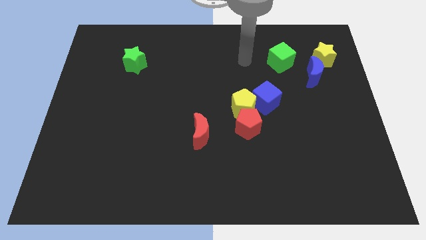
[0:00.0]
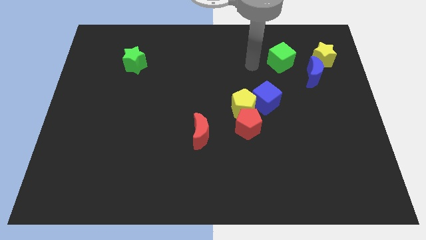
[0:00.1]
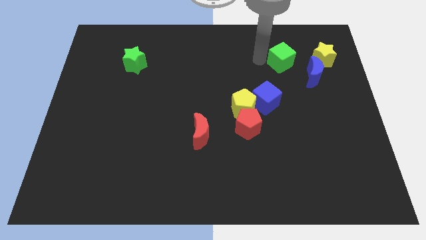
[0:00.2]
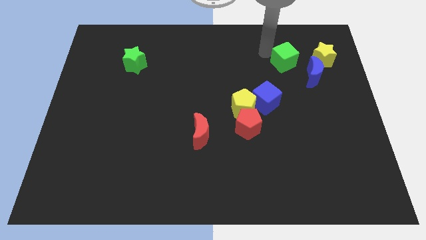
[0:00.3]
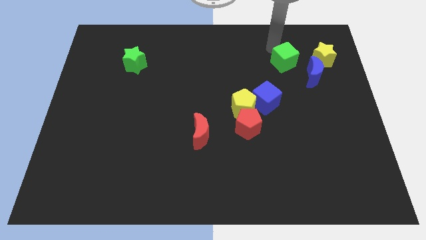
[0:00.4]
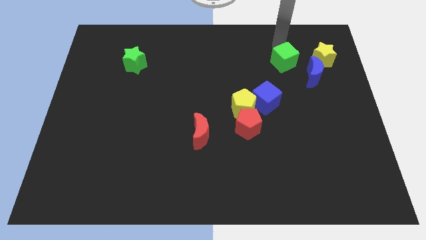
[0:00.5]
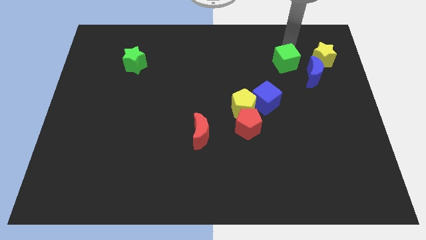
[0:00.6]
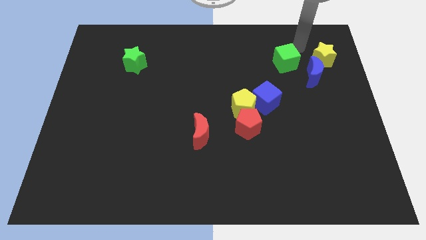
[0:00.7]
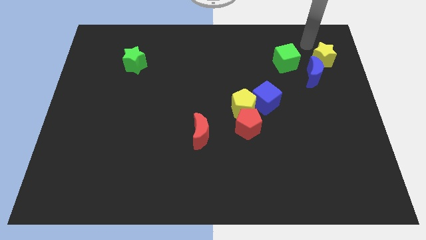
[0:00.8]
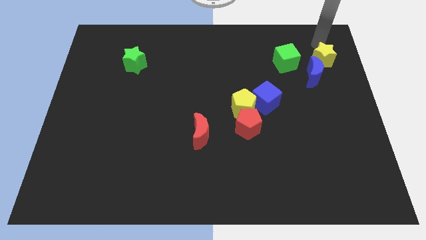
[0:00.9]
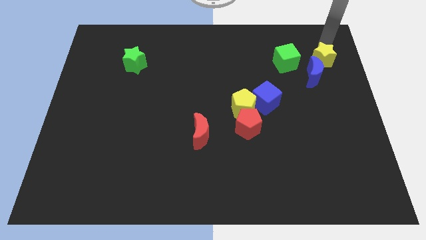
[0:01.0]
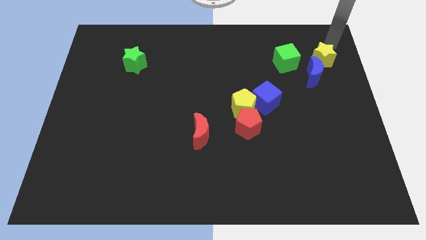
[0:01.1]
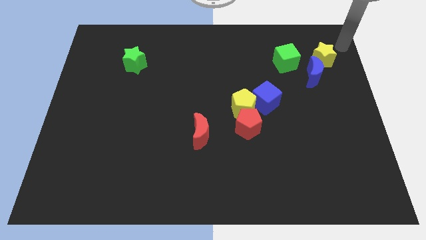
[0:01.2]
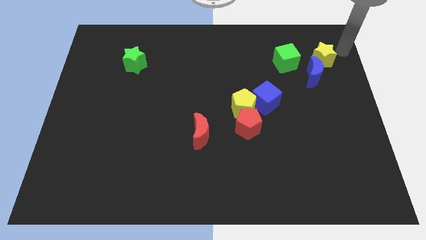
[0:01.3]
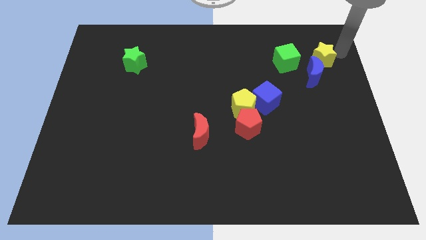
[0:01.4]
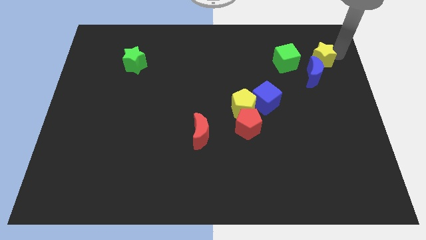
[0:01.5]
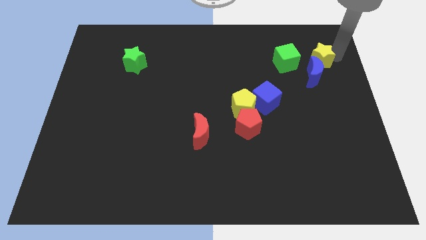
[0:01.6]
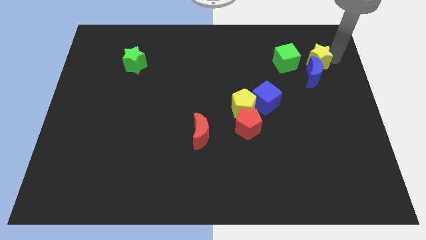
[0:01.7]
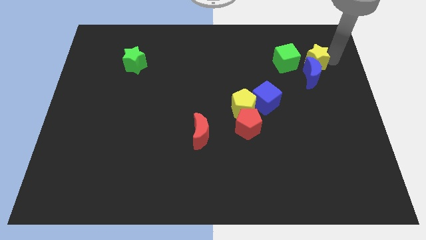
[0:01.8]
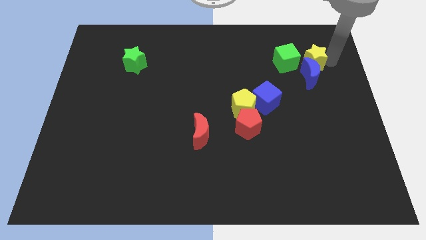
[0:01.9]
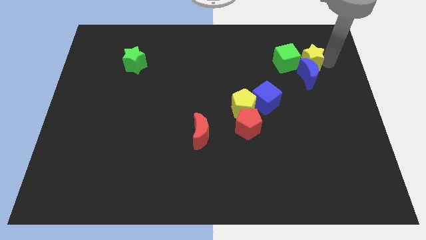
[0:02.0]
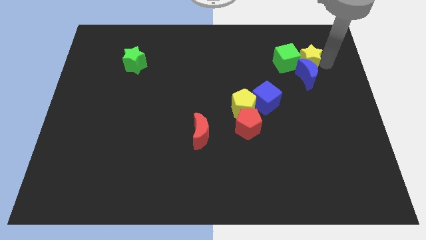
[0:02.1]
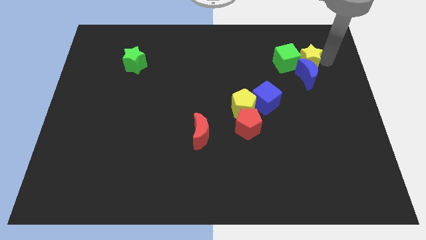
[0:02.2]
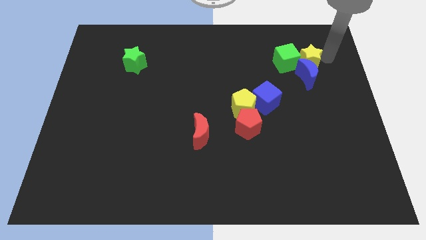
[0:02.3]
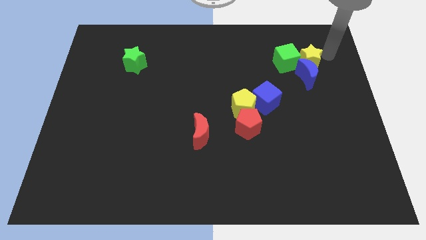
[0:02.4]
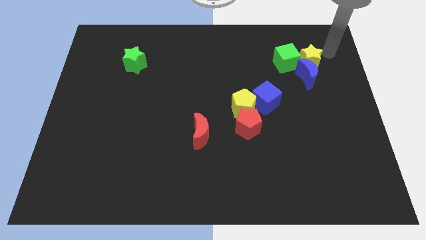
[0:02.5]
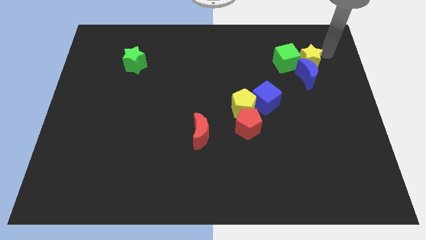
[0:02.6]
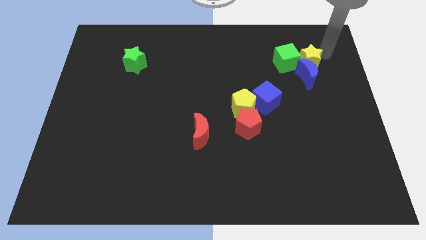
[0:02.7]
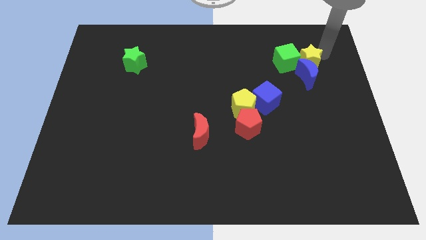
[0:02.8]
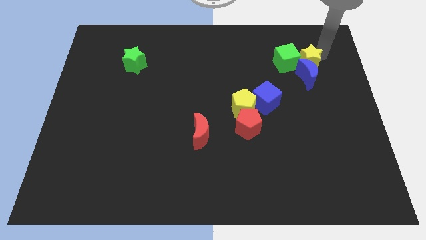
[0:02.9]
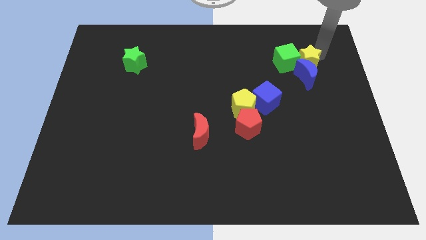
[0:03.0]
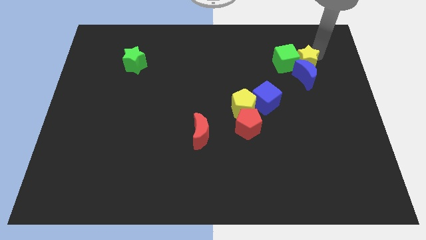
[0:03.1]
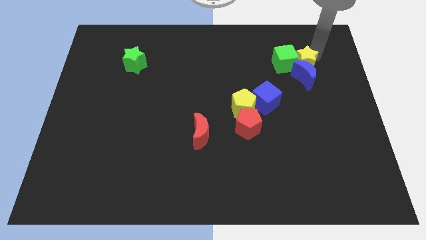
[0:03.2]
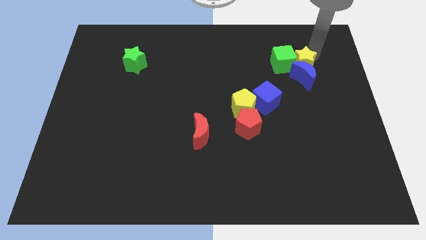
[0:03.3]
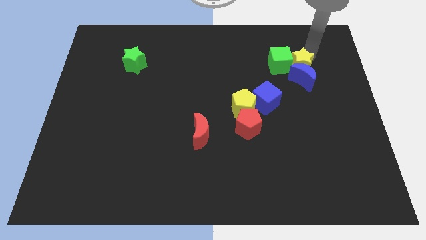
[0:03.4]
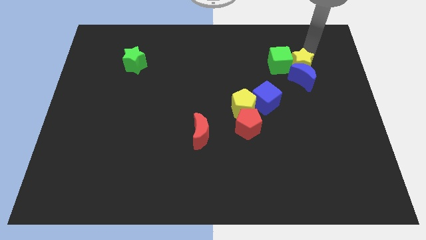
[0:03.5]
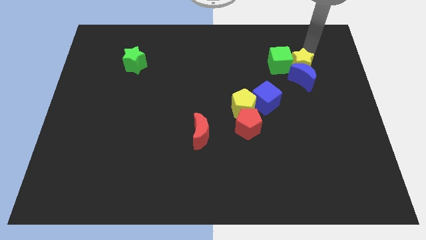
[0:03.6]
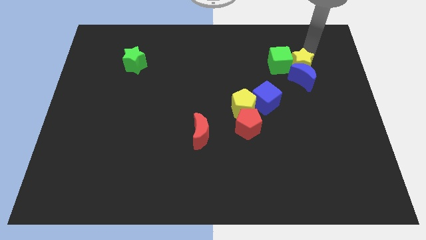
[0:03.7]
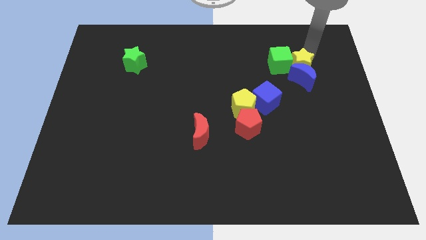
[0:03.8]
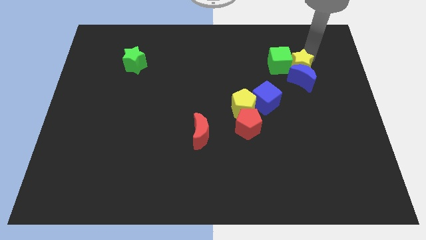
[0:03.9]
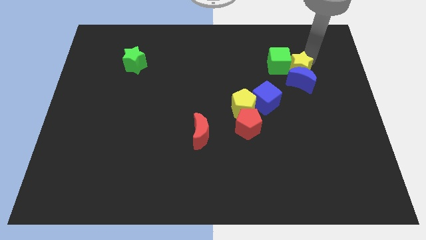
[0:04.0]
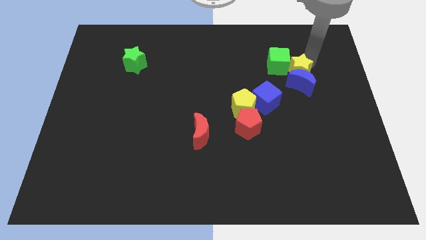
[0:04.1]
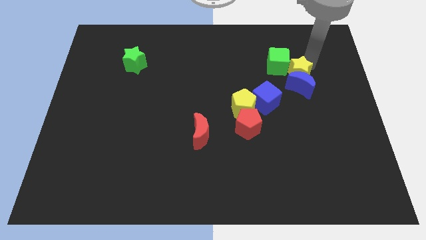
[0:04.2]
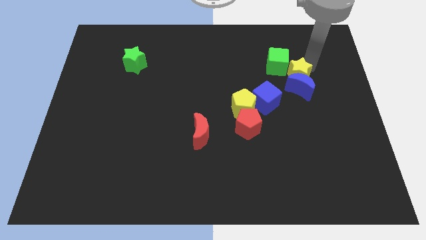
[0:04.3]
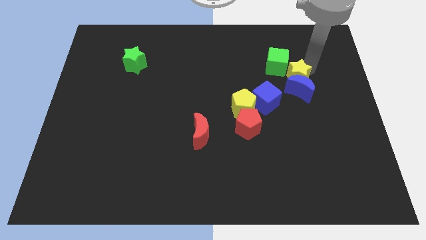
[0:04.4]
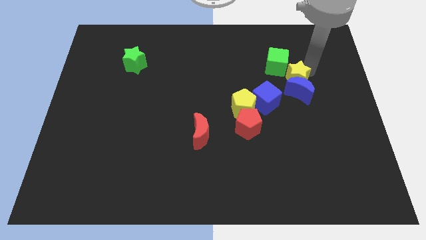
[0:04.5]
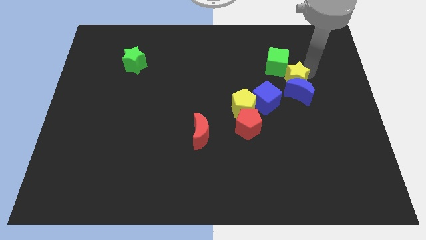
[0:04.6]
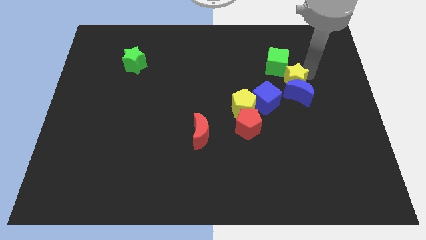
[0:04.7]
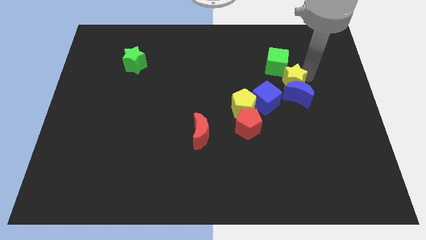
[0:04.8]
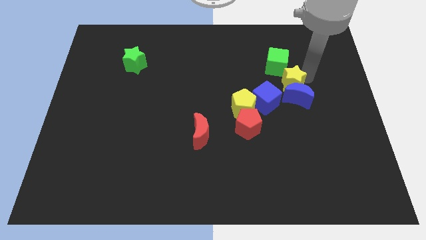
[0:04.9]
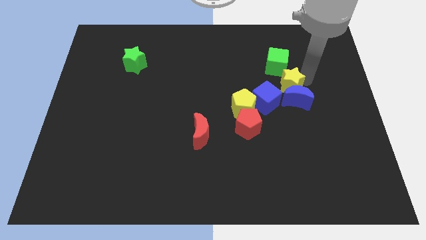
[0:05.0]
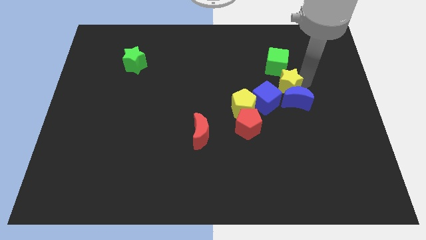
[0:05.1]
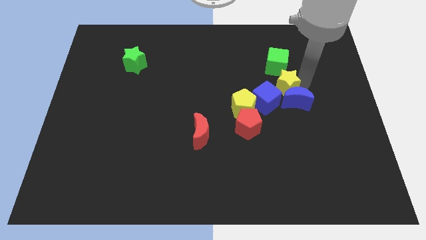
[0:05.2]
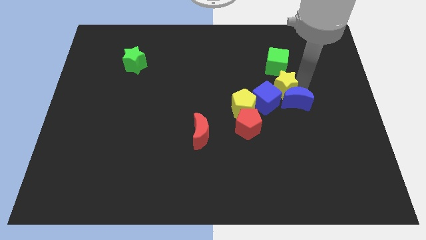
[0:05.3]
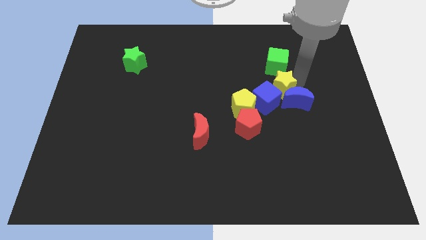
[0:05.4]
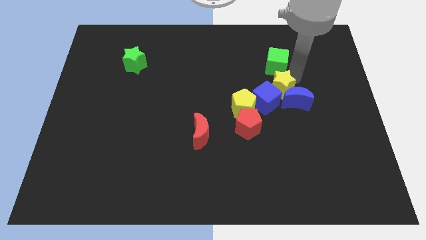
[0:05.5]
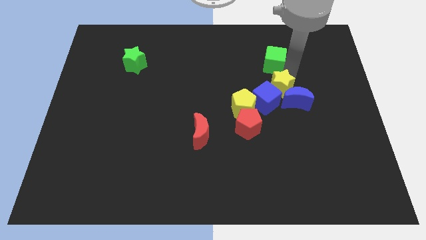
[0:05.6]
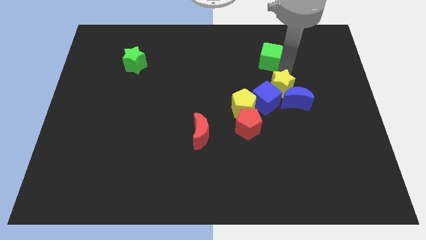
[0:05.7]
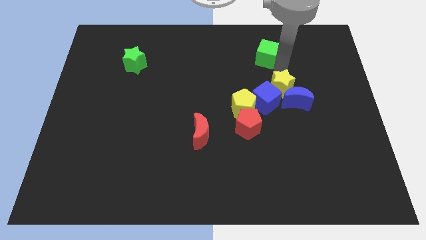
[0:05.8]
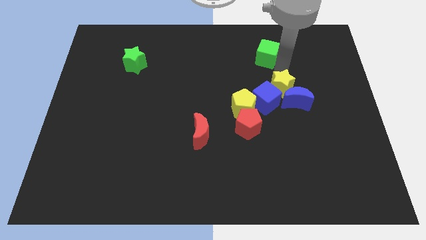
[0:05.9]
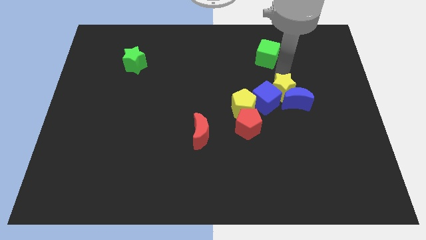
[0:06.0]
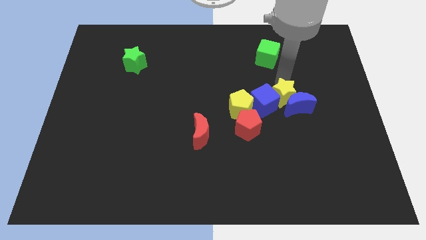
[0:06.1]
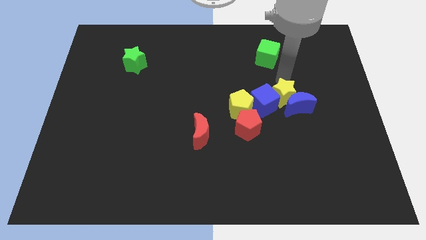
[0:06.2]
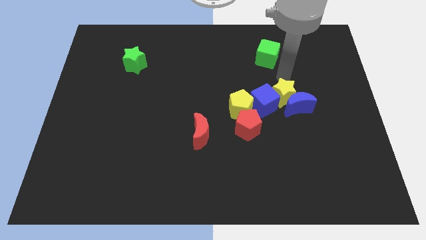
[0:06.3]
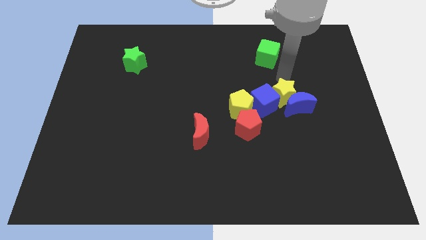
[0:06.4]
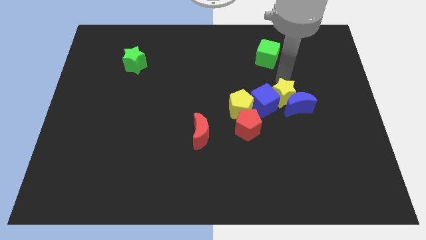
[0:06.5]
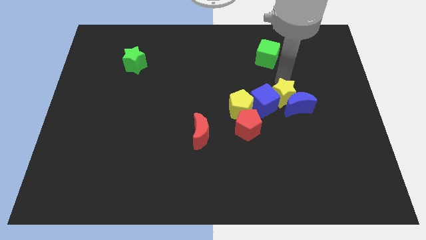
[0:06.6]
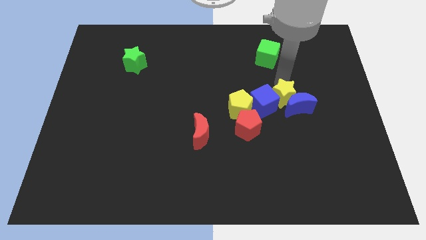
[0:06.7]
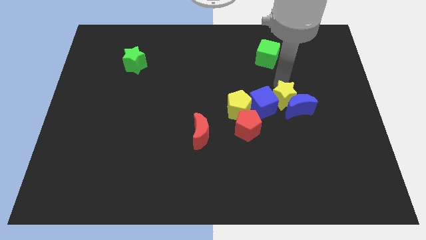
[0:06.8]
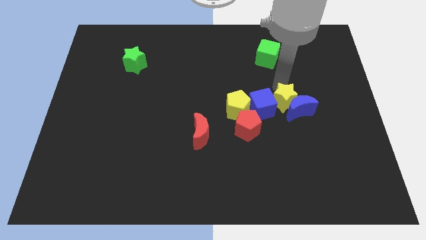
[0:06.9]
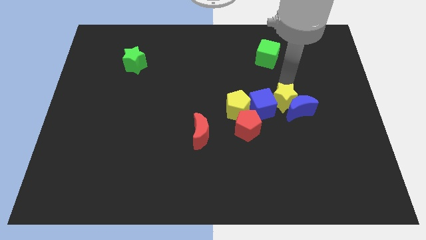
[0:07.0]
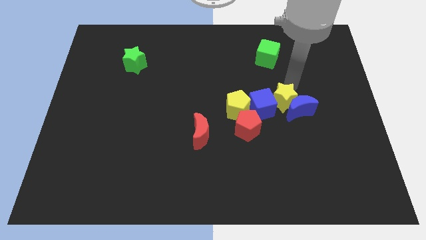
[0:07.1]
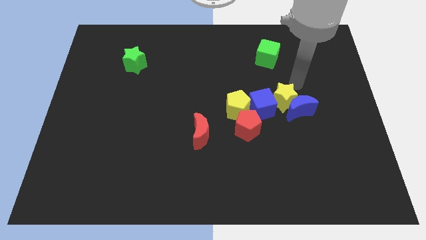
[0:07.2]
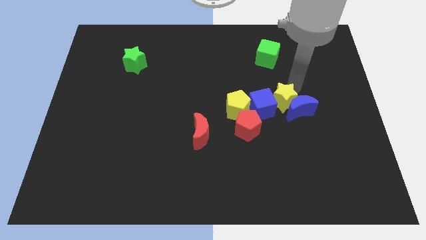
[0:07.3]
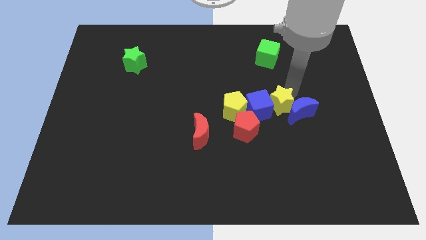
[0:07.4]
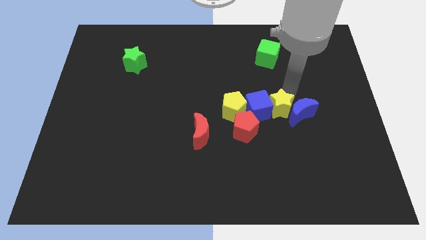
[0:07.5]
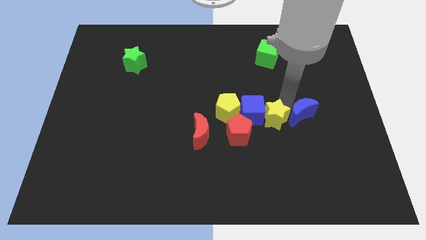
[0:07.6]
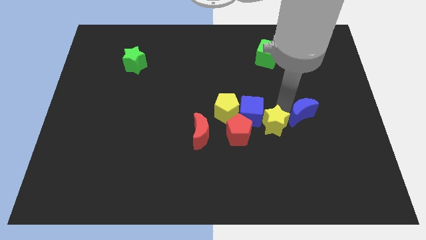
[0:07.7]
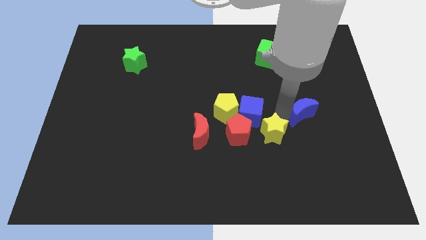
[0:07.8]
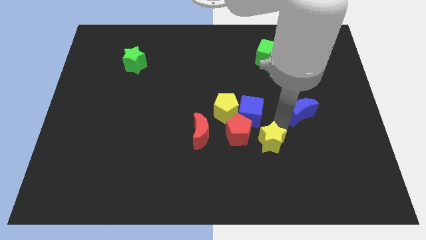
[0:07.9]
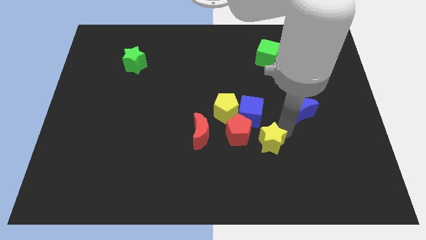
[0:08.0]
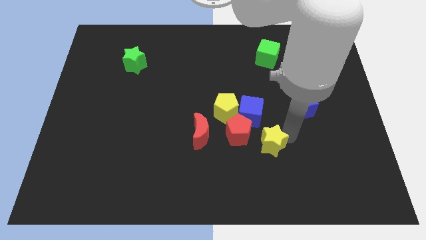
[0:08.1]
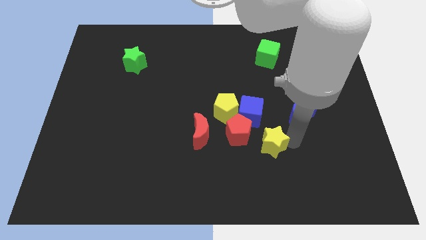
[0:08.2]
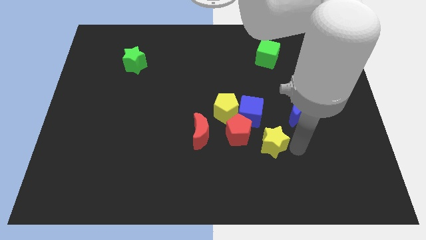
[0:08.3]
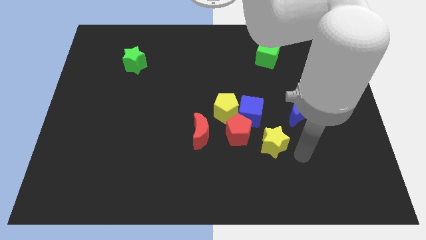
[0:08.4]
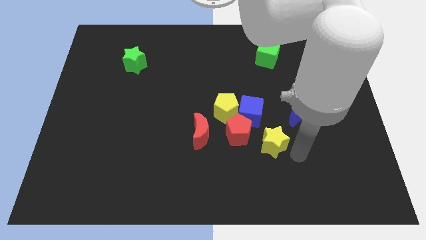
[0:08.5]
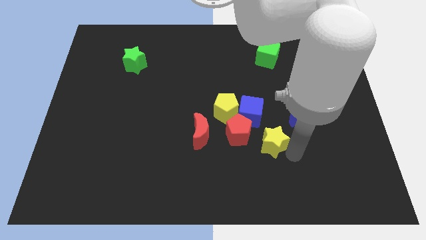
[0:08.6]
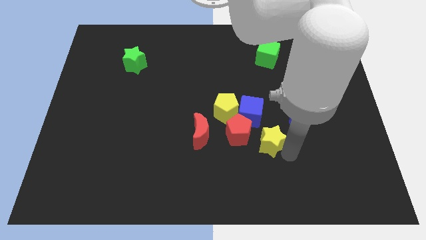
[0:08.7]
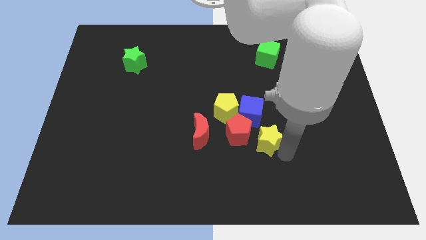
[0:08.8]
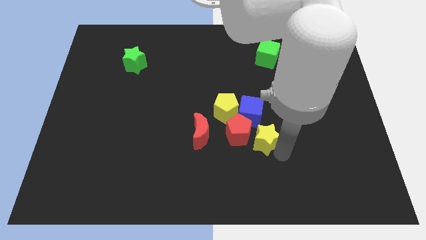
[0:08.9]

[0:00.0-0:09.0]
move the yellow star towards the red pentagon
